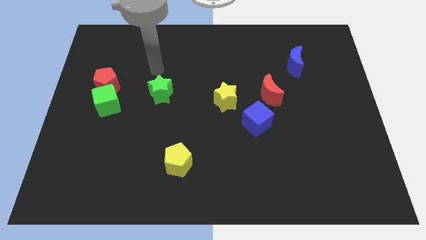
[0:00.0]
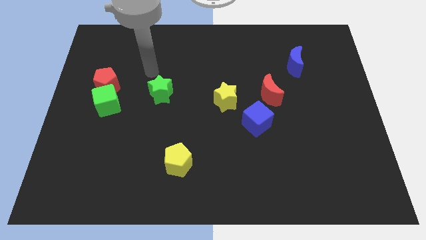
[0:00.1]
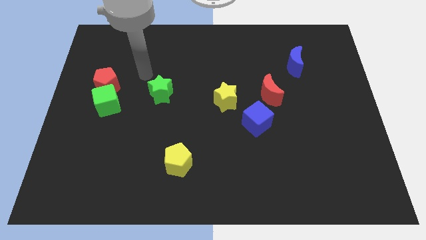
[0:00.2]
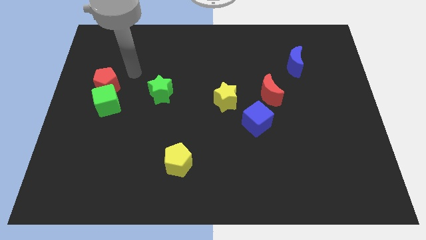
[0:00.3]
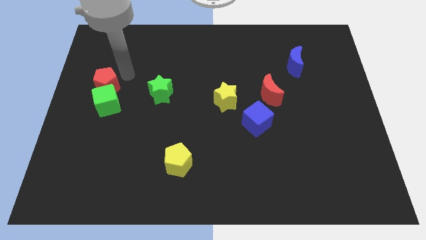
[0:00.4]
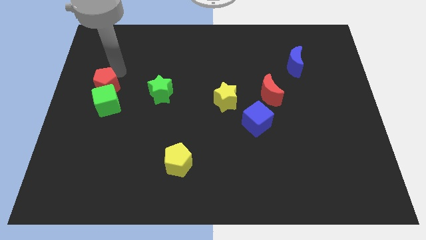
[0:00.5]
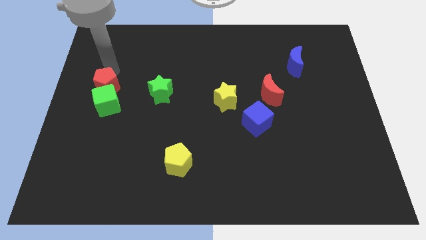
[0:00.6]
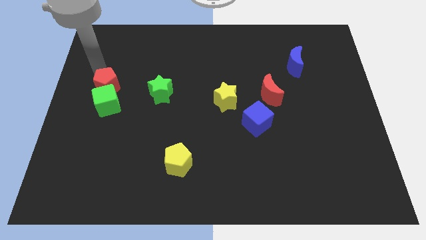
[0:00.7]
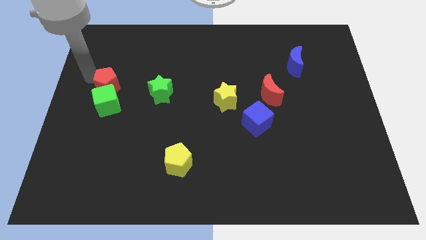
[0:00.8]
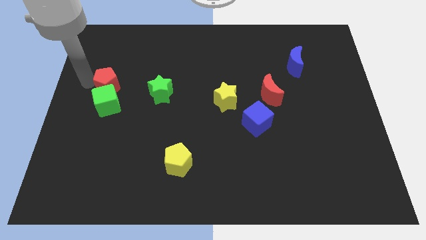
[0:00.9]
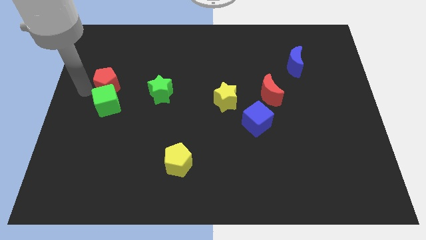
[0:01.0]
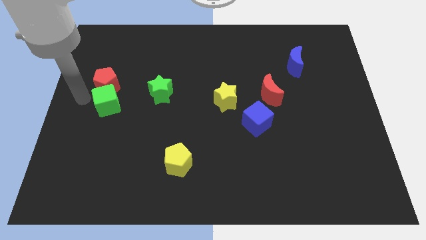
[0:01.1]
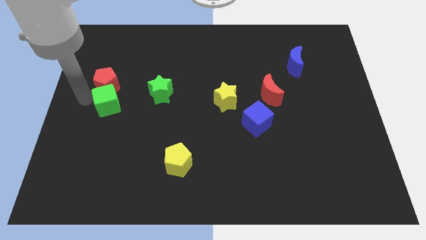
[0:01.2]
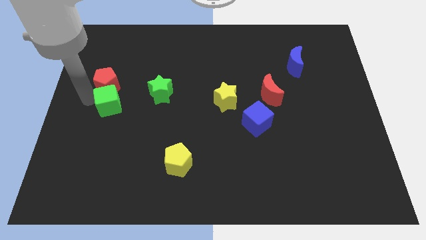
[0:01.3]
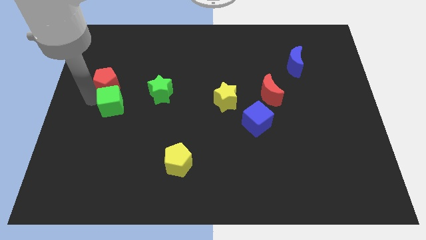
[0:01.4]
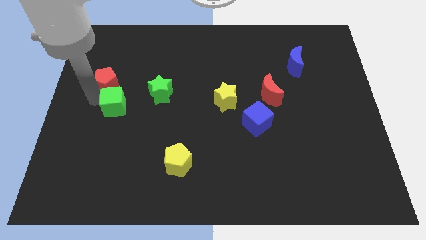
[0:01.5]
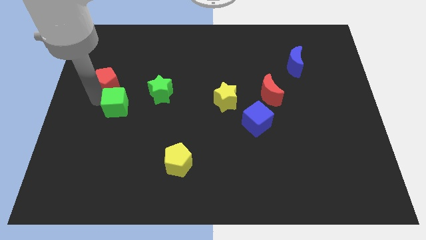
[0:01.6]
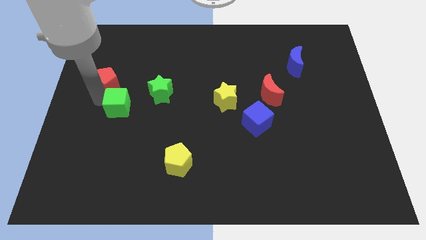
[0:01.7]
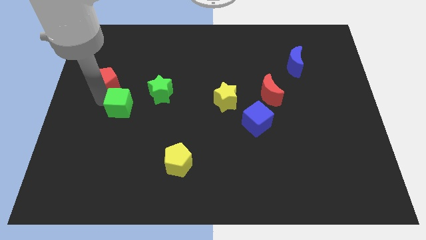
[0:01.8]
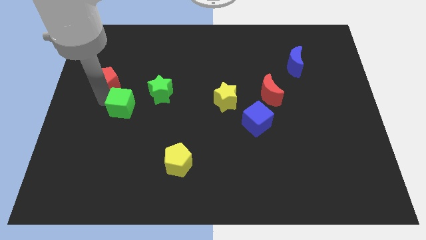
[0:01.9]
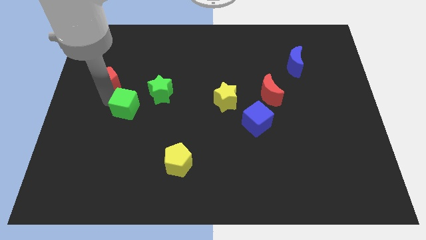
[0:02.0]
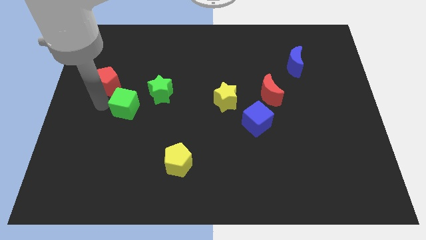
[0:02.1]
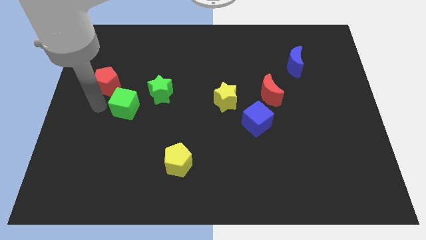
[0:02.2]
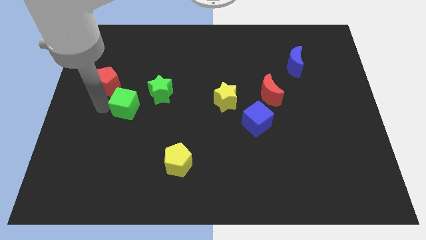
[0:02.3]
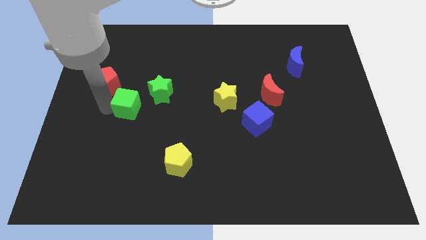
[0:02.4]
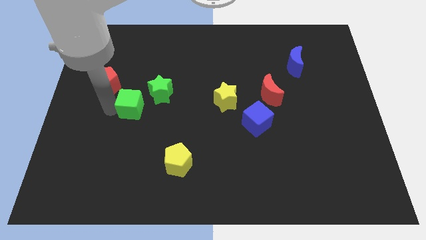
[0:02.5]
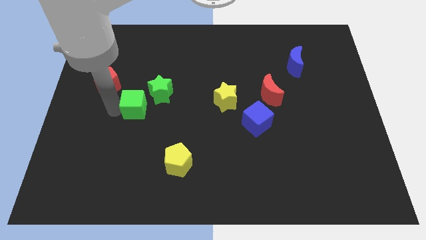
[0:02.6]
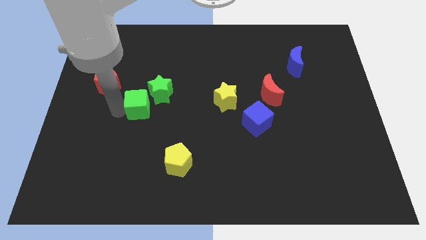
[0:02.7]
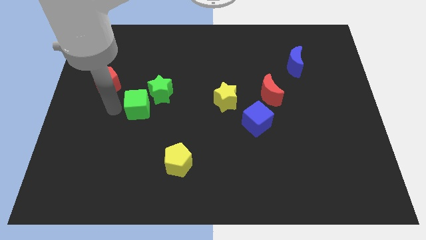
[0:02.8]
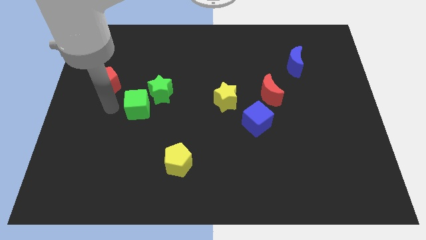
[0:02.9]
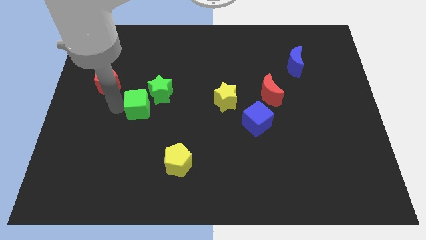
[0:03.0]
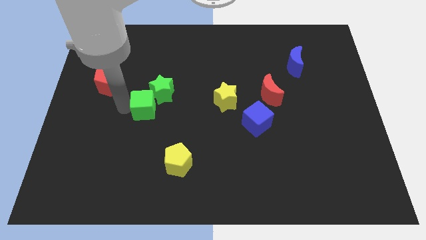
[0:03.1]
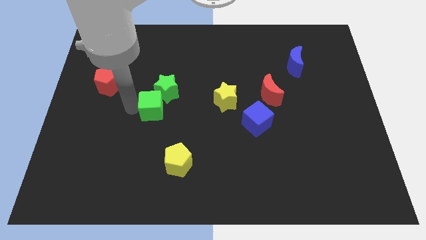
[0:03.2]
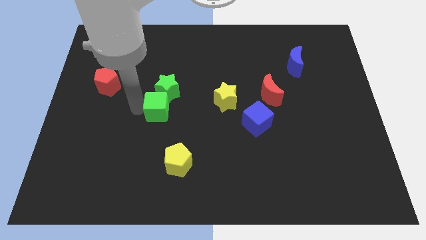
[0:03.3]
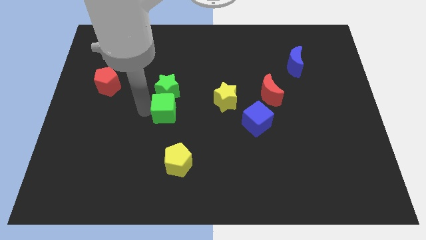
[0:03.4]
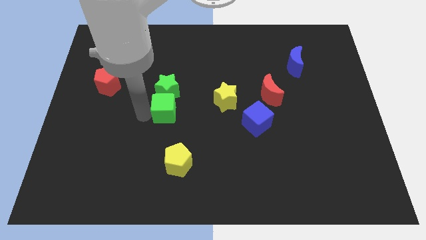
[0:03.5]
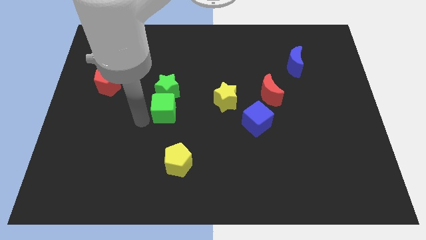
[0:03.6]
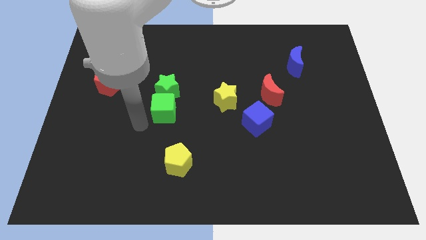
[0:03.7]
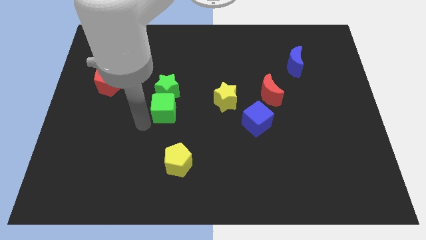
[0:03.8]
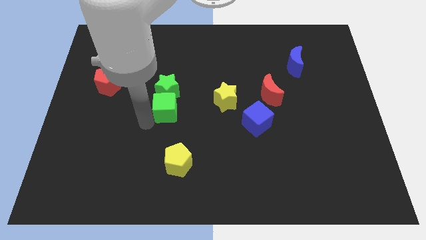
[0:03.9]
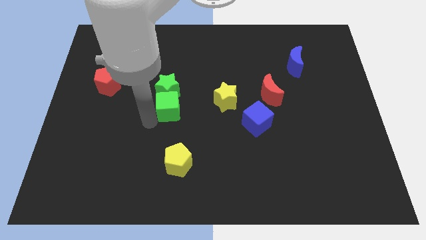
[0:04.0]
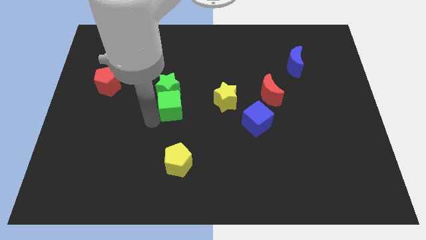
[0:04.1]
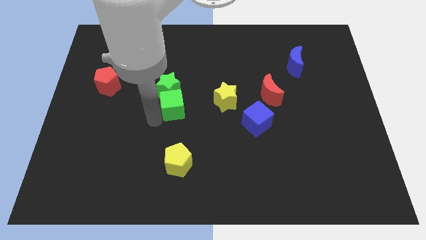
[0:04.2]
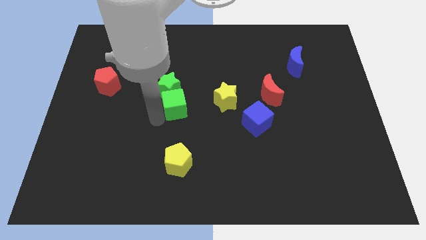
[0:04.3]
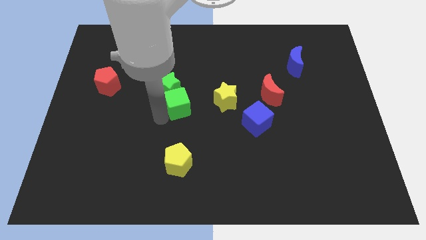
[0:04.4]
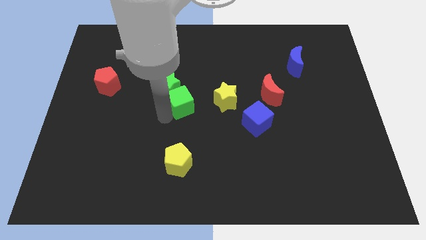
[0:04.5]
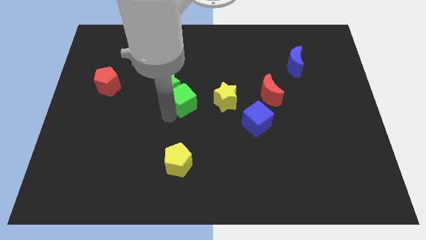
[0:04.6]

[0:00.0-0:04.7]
push the green cube just right of the green star

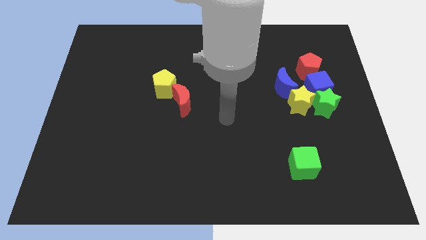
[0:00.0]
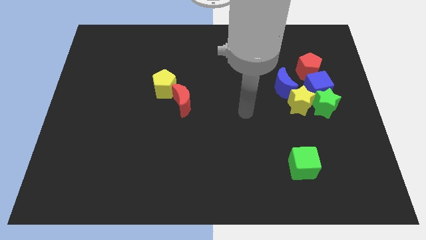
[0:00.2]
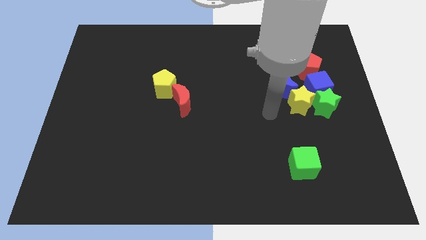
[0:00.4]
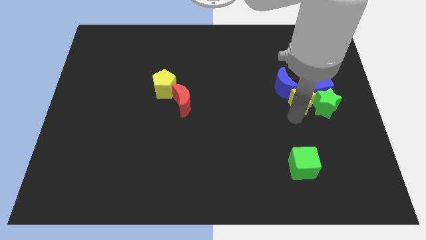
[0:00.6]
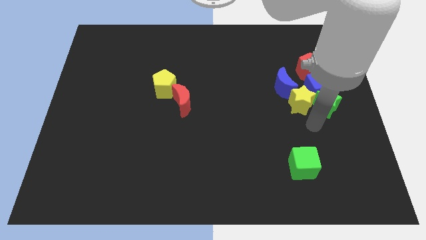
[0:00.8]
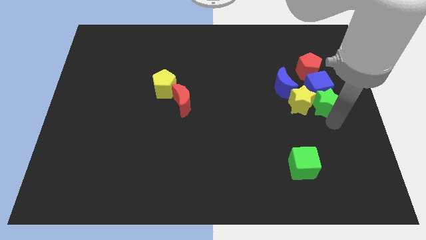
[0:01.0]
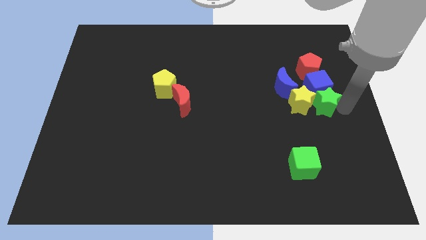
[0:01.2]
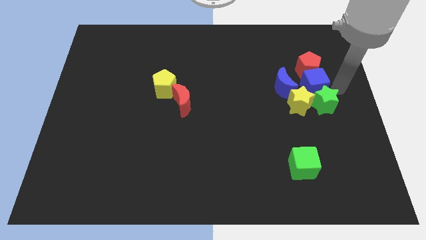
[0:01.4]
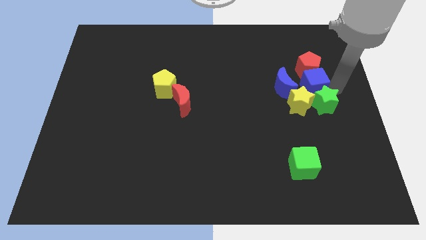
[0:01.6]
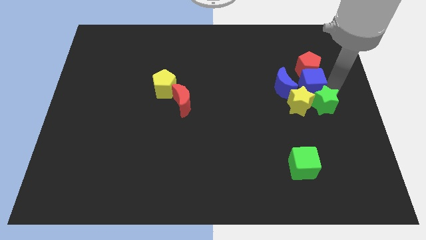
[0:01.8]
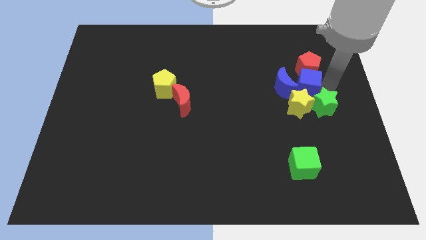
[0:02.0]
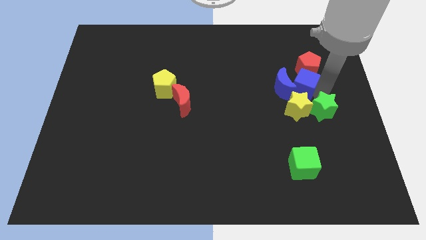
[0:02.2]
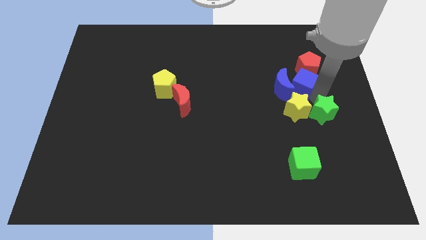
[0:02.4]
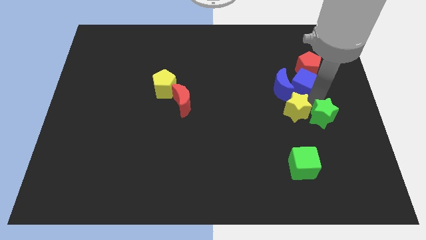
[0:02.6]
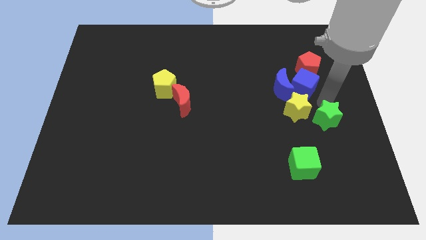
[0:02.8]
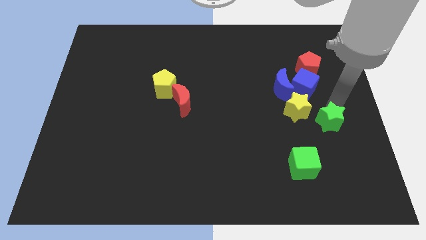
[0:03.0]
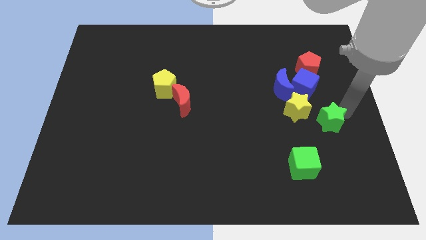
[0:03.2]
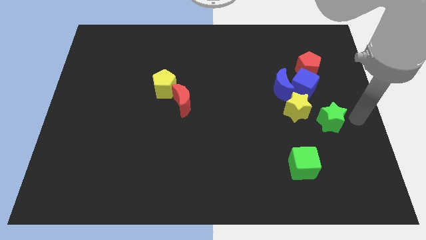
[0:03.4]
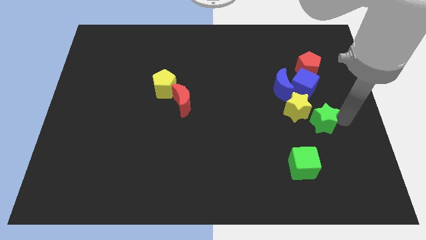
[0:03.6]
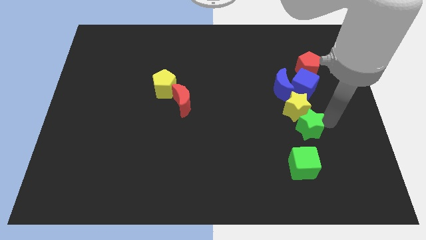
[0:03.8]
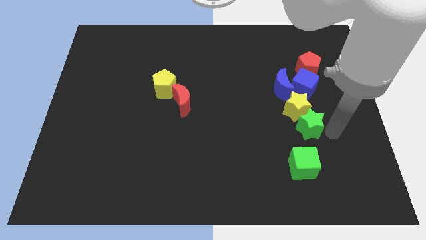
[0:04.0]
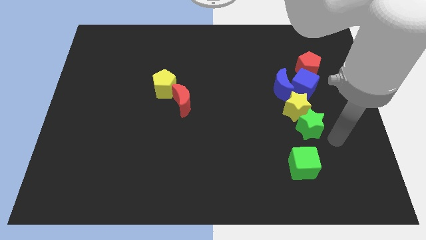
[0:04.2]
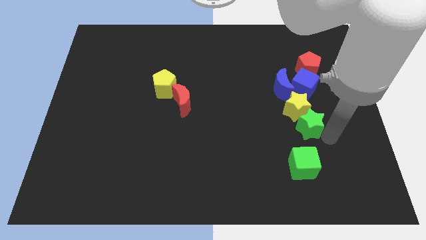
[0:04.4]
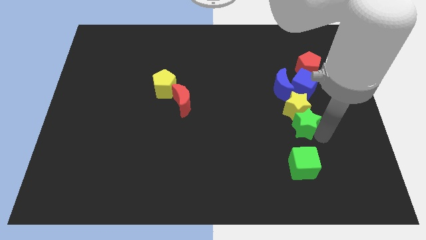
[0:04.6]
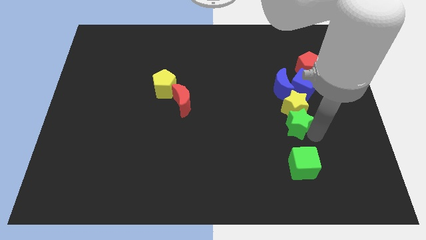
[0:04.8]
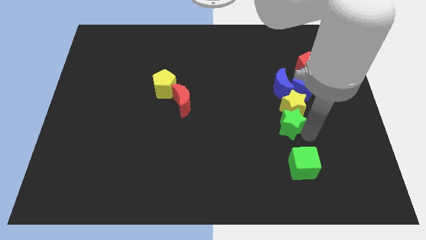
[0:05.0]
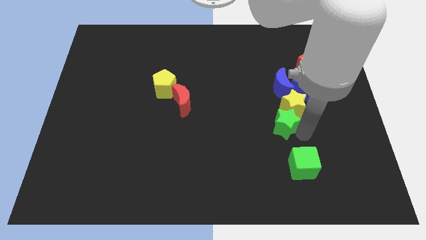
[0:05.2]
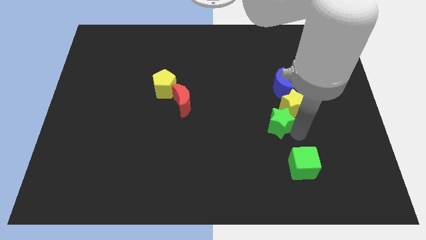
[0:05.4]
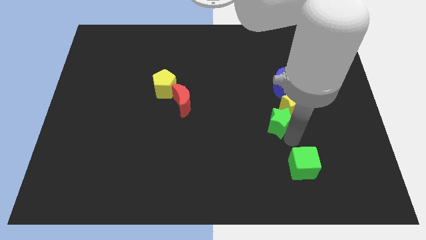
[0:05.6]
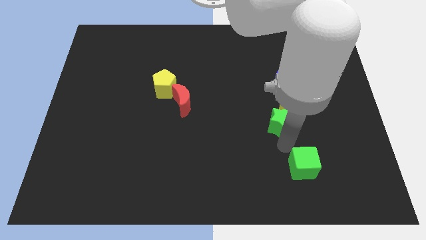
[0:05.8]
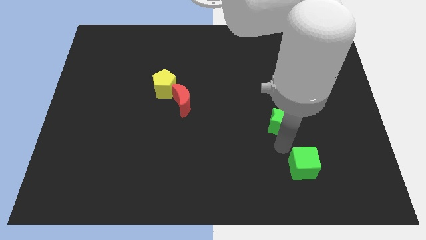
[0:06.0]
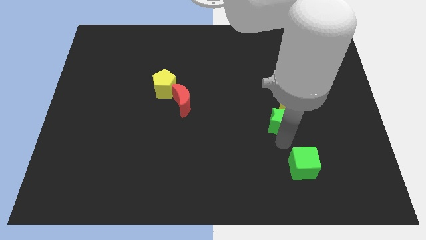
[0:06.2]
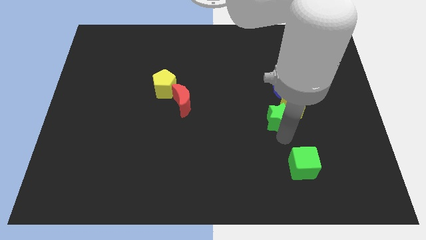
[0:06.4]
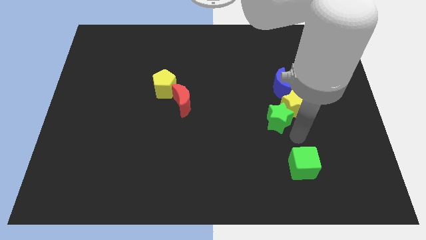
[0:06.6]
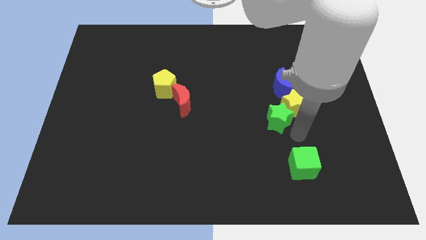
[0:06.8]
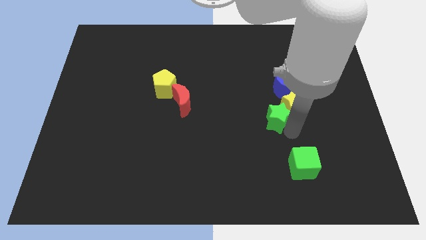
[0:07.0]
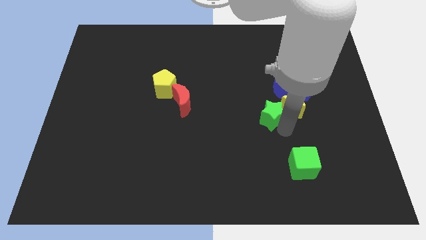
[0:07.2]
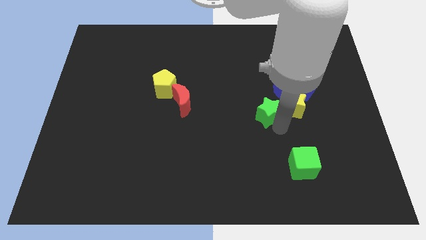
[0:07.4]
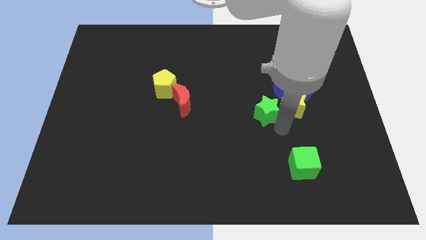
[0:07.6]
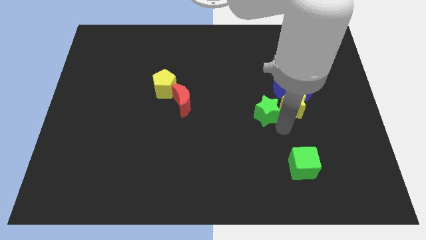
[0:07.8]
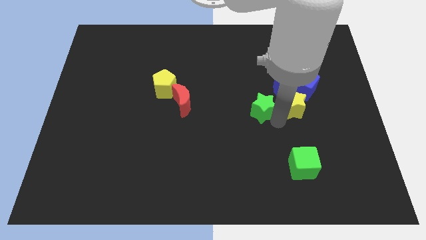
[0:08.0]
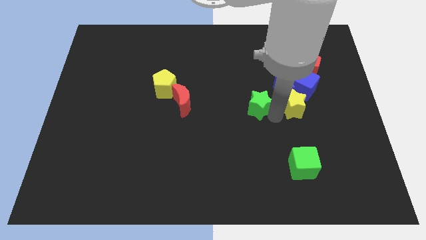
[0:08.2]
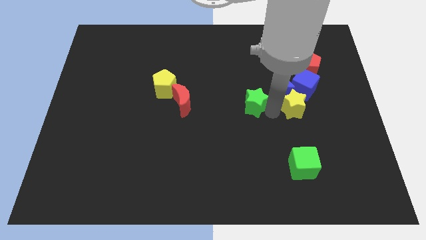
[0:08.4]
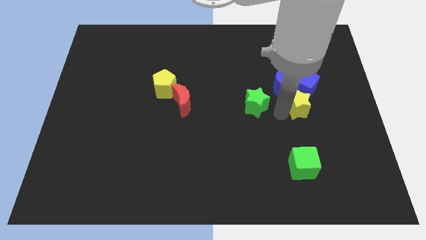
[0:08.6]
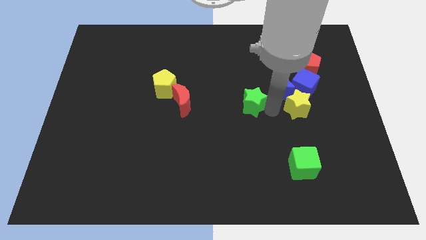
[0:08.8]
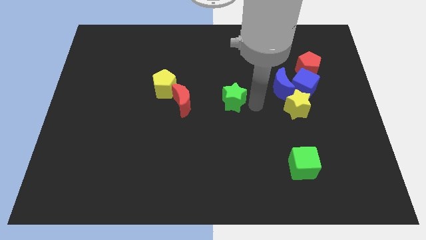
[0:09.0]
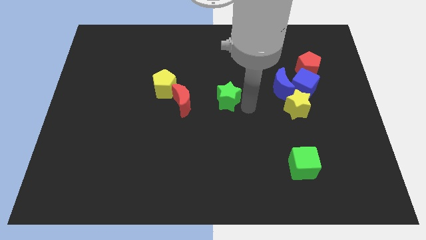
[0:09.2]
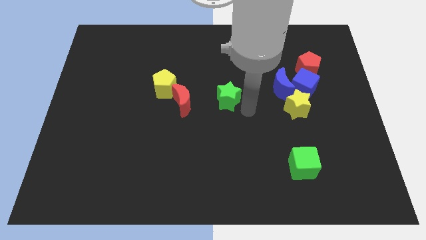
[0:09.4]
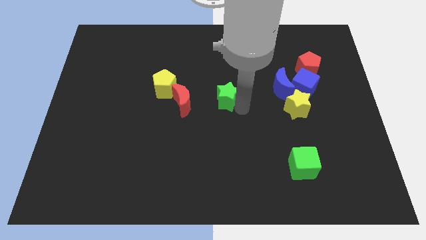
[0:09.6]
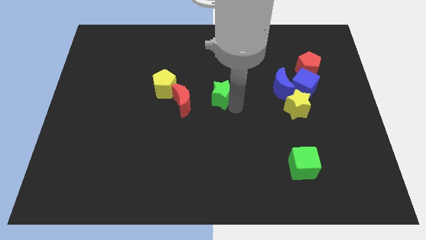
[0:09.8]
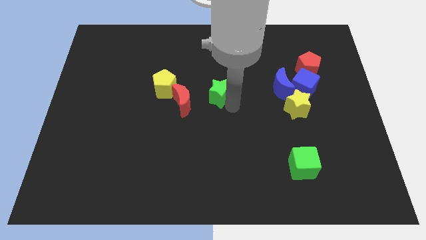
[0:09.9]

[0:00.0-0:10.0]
slide the green star to the top right of the red moon
